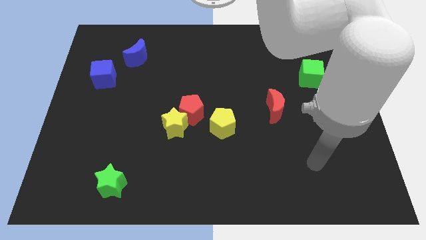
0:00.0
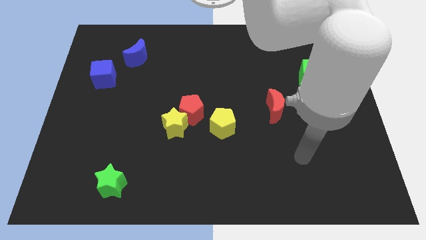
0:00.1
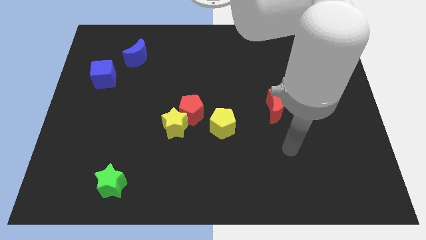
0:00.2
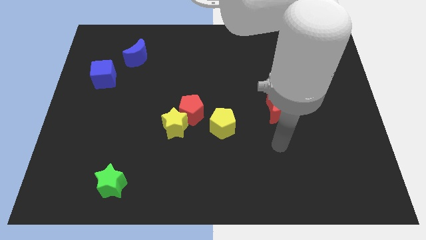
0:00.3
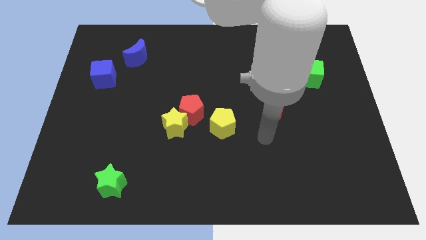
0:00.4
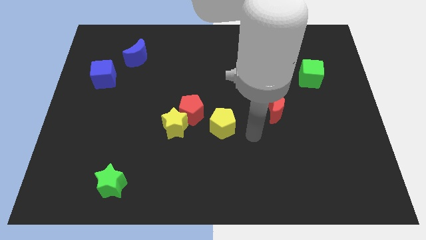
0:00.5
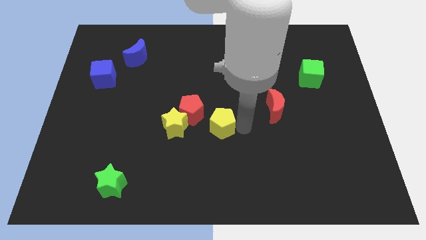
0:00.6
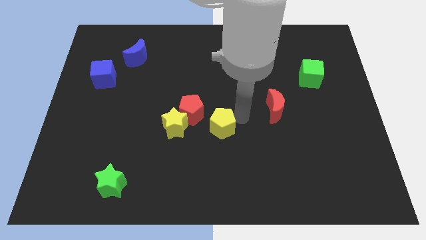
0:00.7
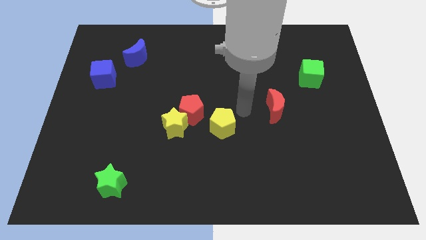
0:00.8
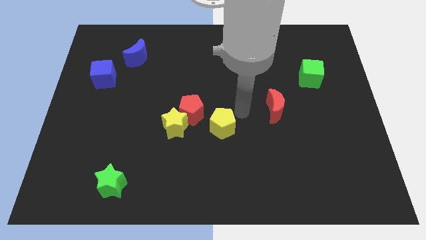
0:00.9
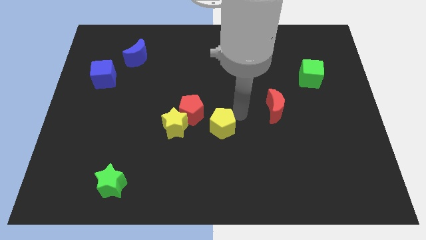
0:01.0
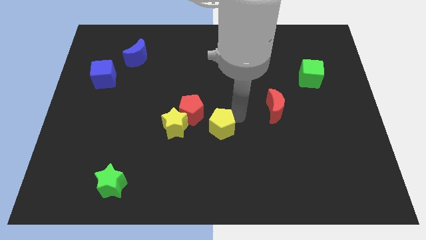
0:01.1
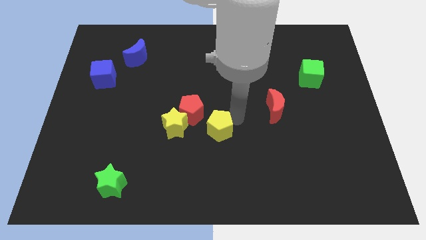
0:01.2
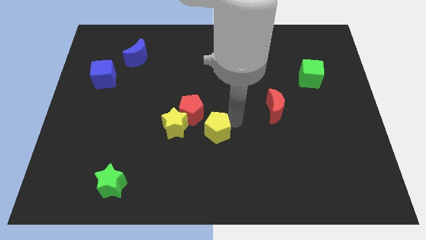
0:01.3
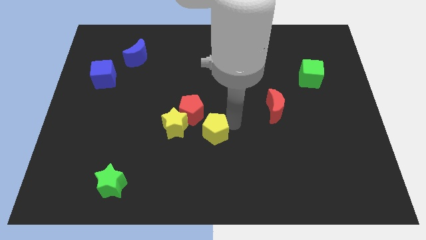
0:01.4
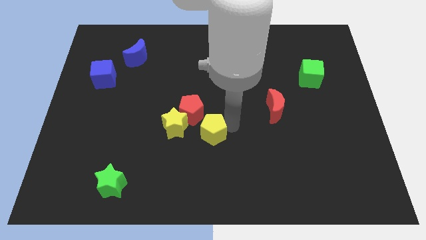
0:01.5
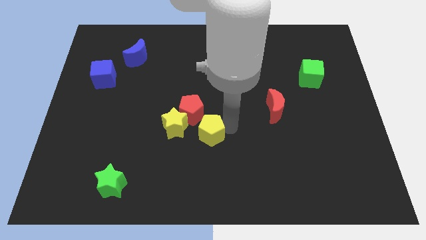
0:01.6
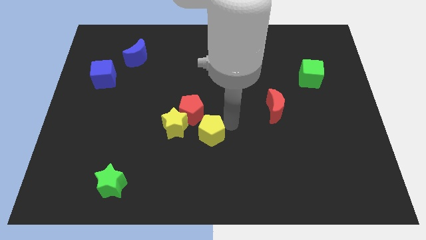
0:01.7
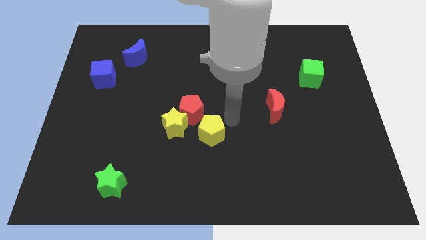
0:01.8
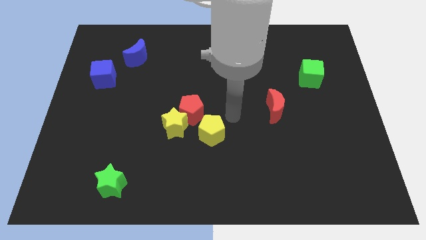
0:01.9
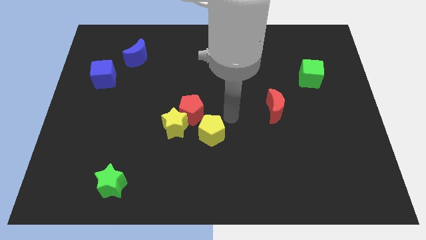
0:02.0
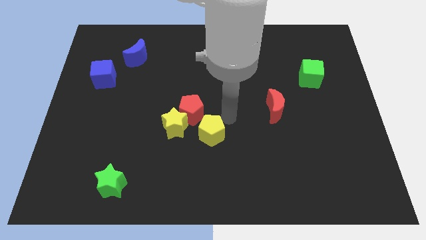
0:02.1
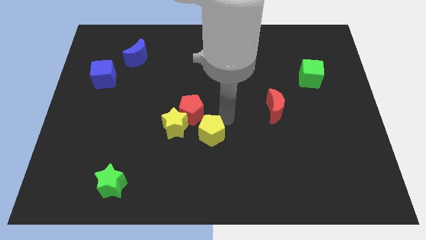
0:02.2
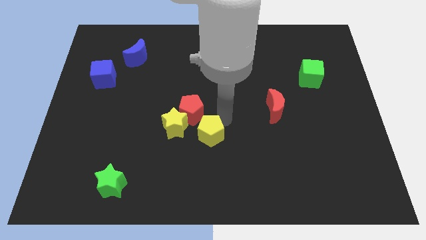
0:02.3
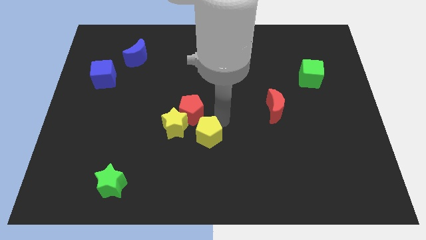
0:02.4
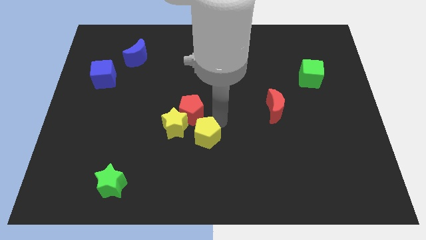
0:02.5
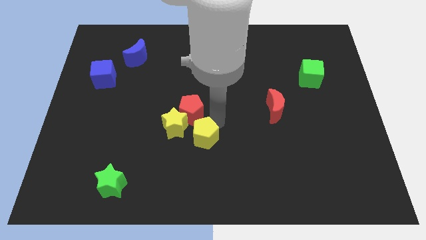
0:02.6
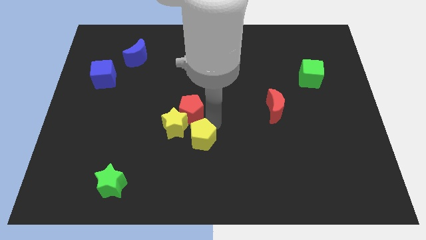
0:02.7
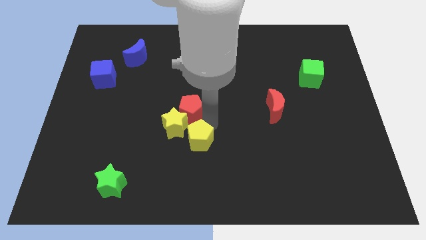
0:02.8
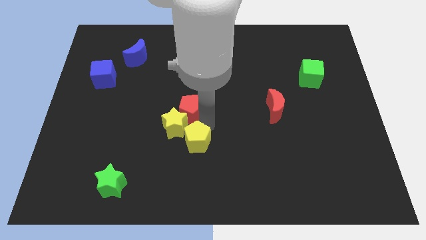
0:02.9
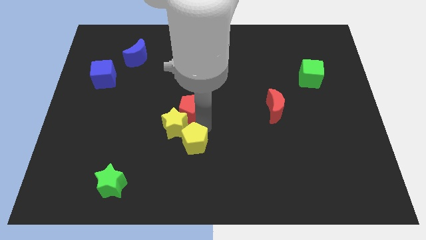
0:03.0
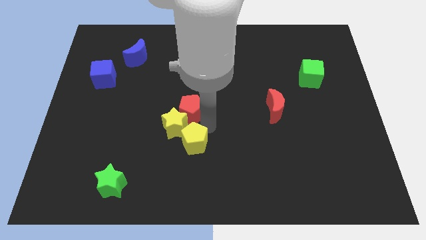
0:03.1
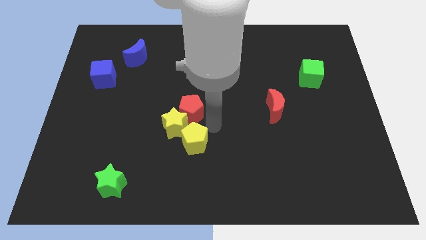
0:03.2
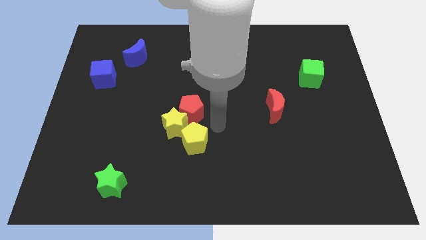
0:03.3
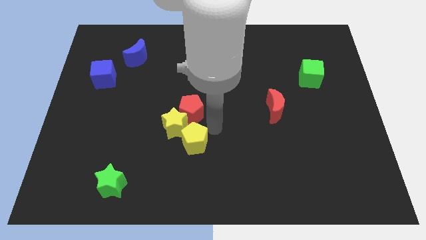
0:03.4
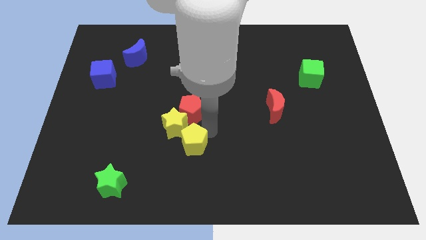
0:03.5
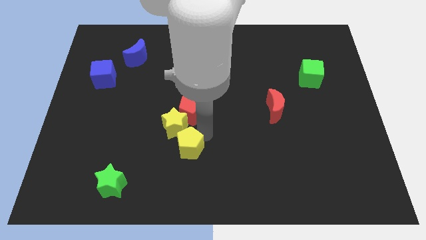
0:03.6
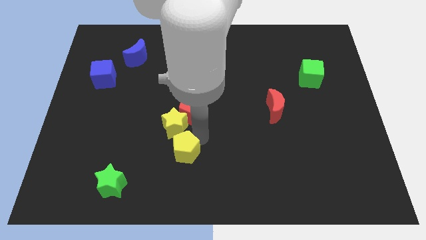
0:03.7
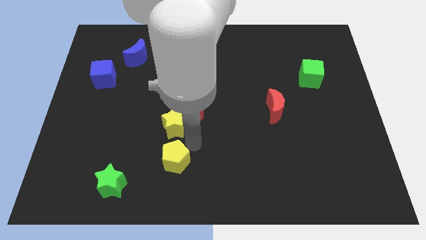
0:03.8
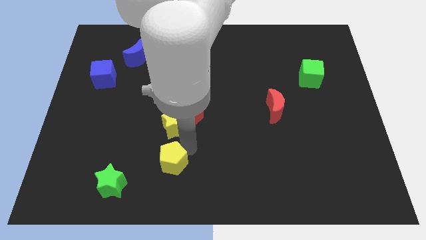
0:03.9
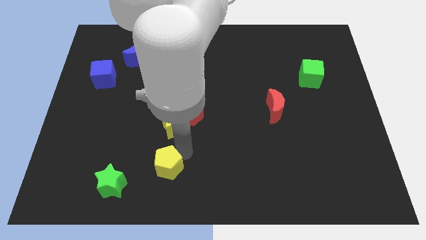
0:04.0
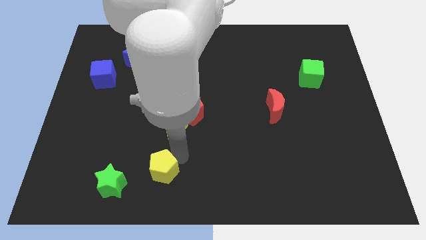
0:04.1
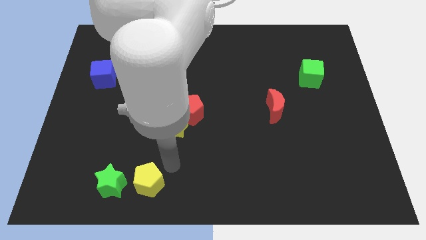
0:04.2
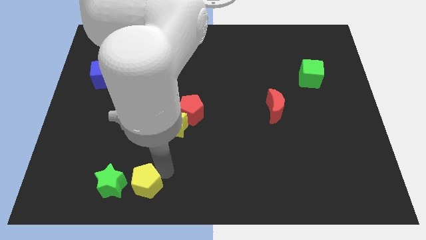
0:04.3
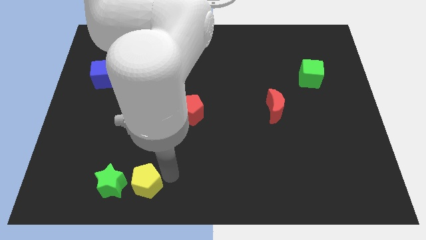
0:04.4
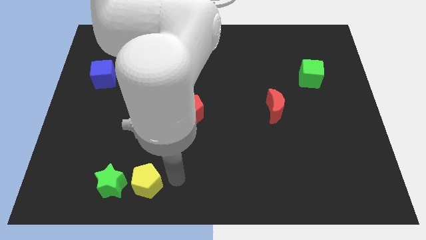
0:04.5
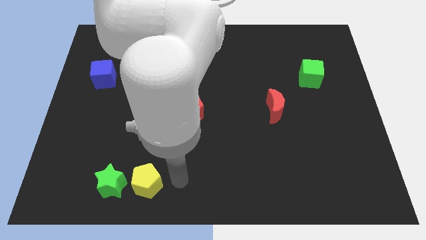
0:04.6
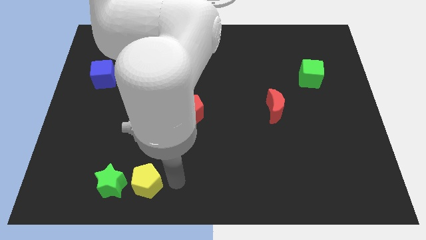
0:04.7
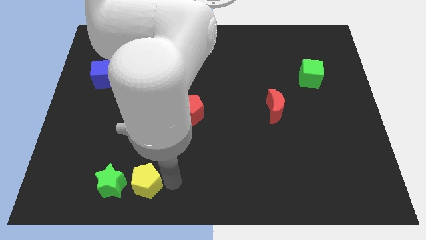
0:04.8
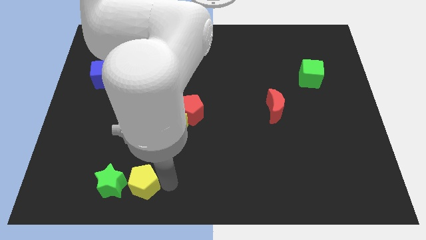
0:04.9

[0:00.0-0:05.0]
move the yellow pentagon next to the green star

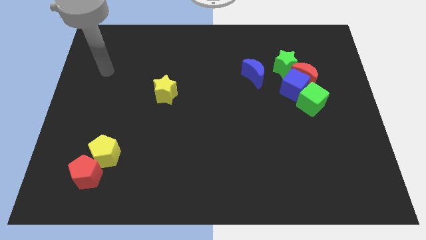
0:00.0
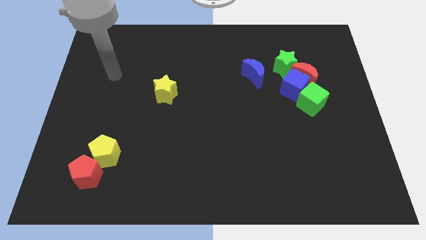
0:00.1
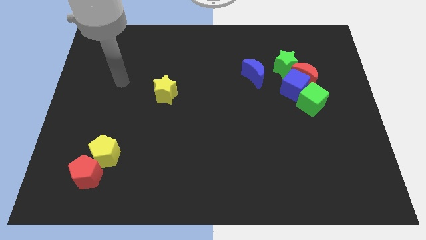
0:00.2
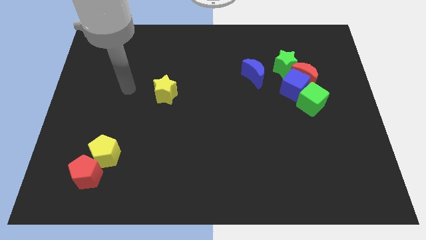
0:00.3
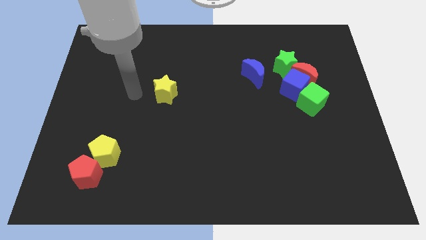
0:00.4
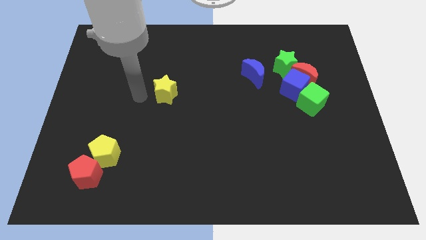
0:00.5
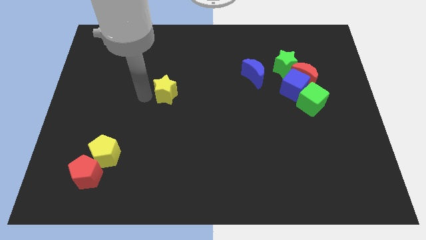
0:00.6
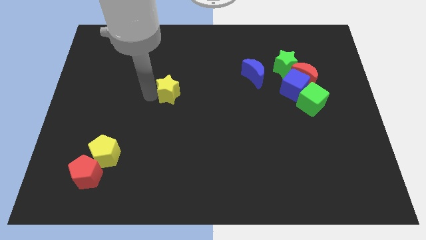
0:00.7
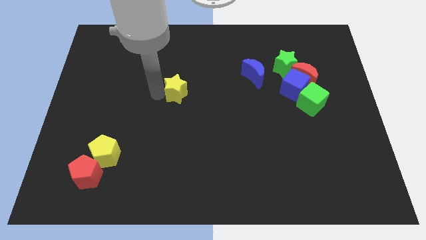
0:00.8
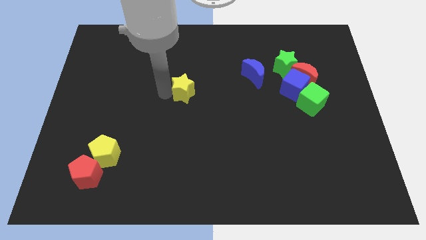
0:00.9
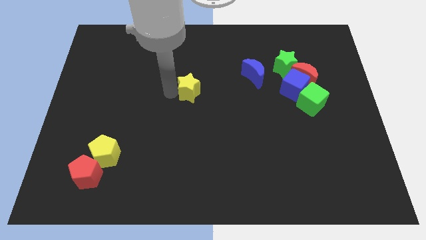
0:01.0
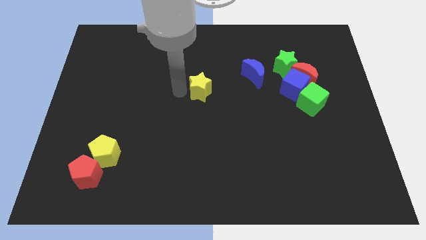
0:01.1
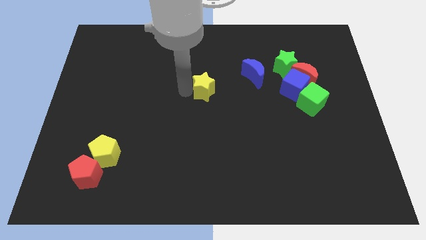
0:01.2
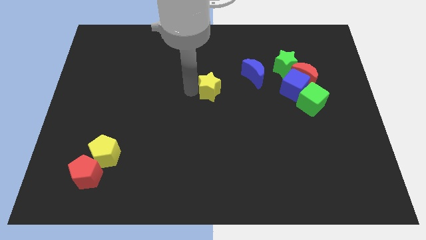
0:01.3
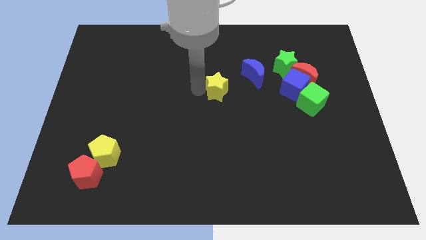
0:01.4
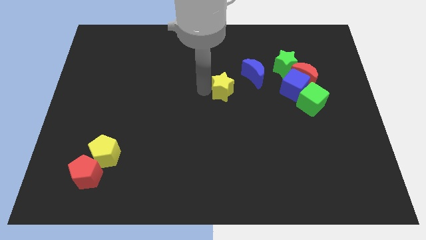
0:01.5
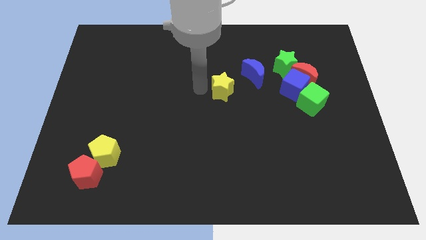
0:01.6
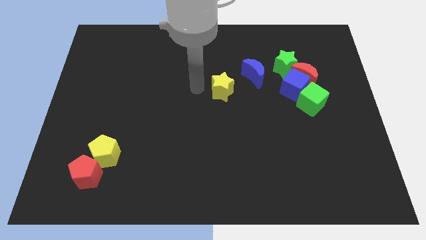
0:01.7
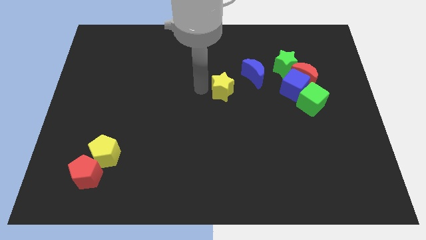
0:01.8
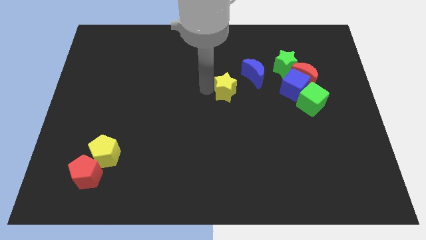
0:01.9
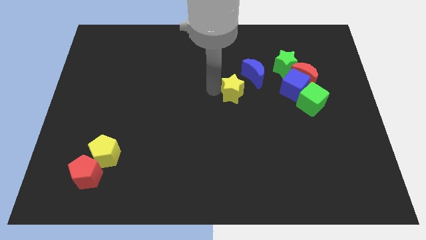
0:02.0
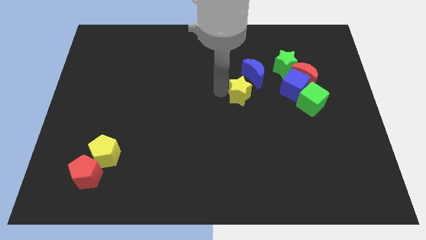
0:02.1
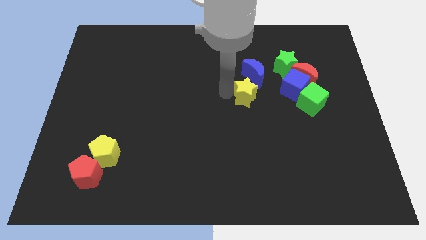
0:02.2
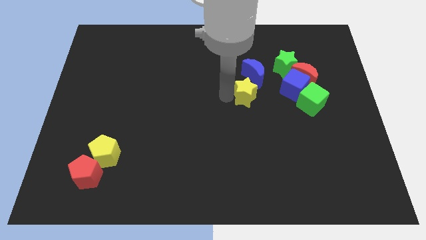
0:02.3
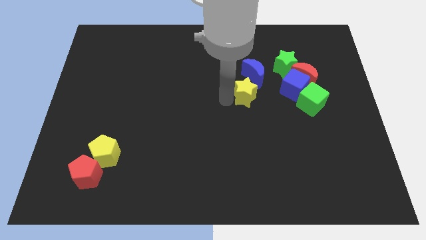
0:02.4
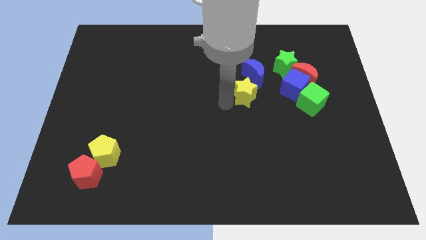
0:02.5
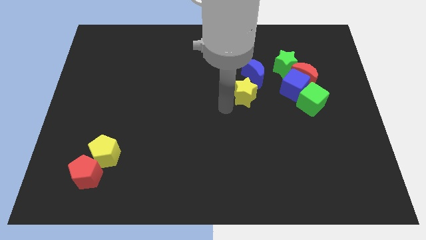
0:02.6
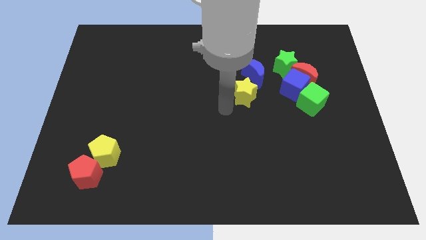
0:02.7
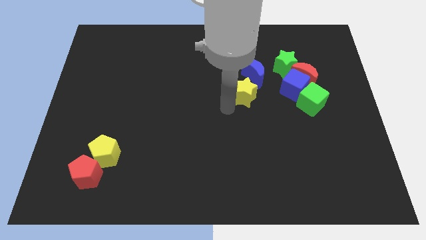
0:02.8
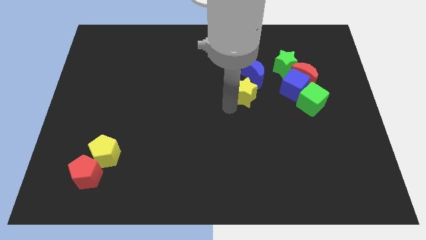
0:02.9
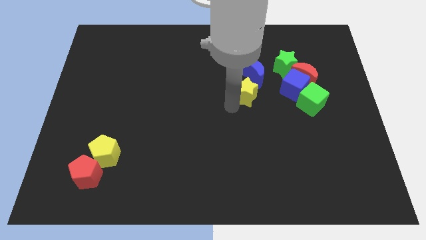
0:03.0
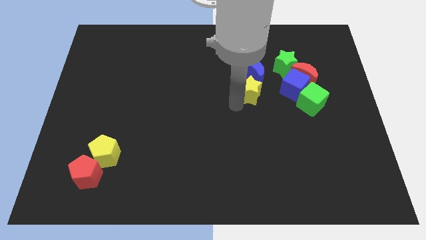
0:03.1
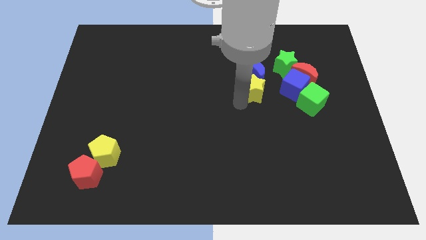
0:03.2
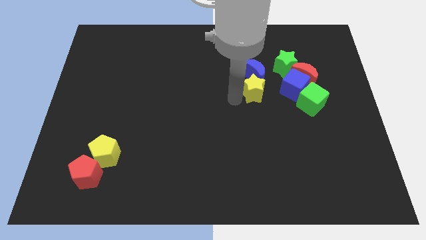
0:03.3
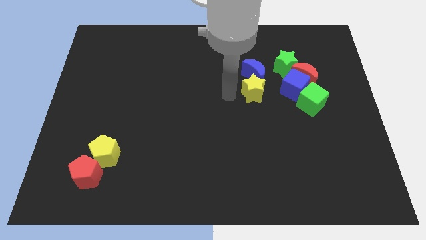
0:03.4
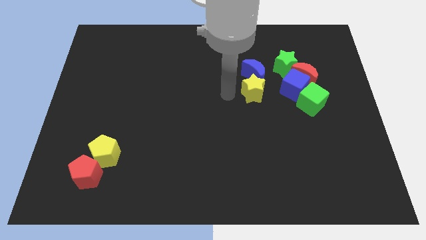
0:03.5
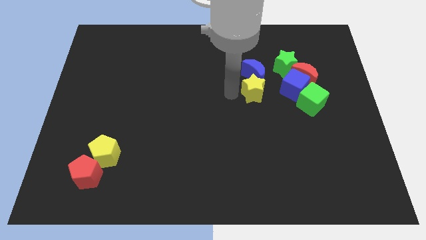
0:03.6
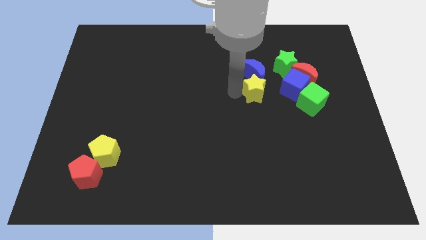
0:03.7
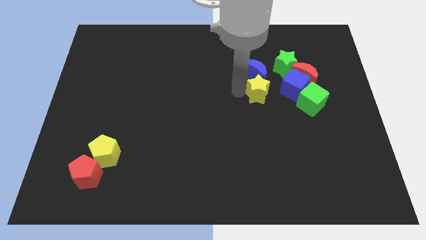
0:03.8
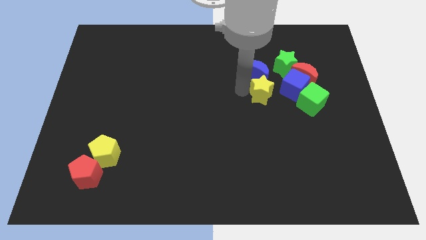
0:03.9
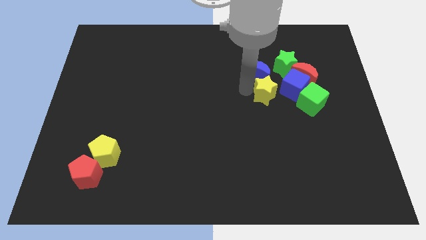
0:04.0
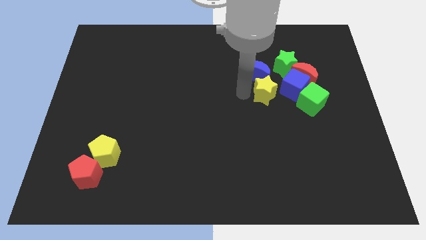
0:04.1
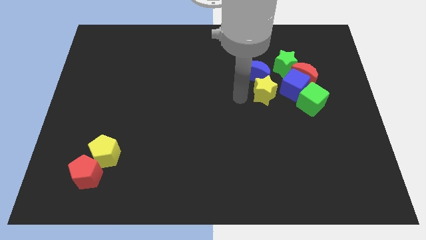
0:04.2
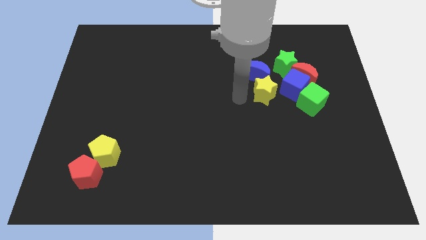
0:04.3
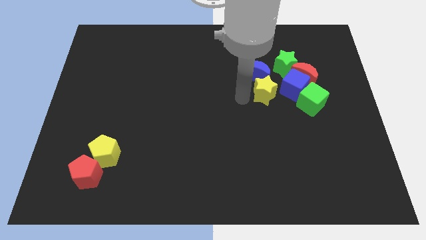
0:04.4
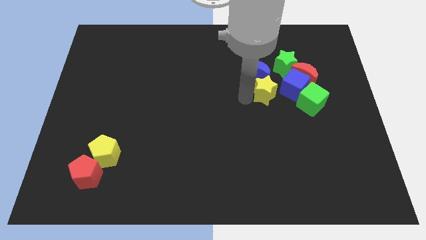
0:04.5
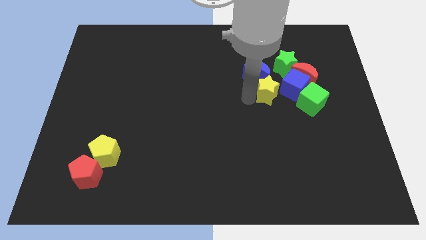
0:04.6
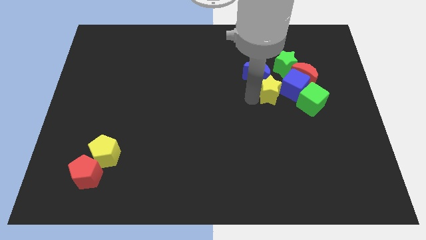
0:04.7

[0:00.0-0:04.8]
slide the yellow star next to the blue cube
